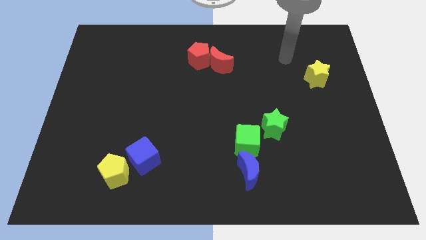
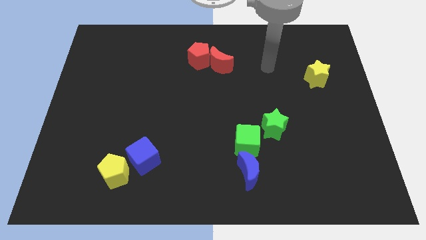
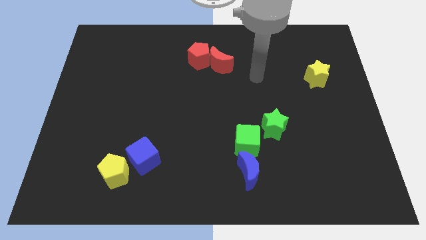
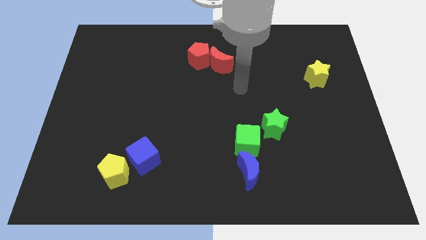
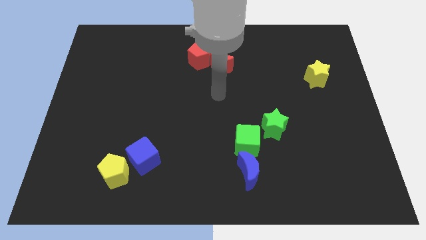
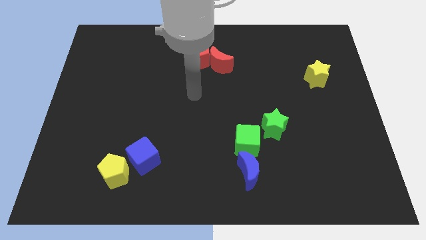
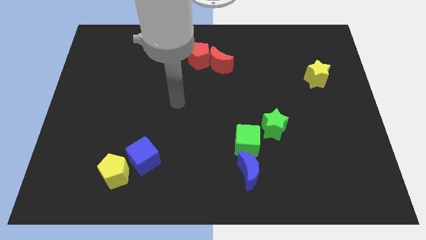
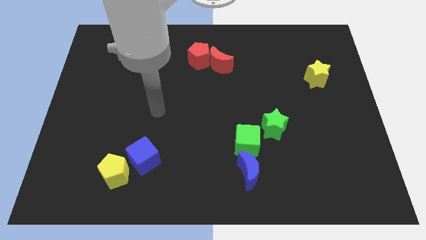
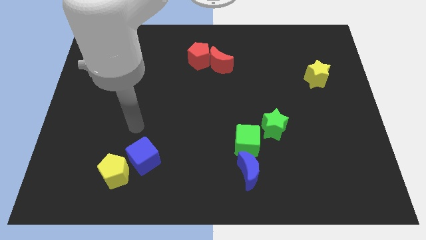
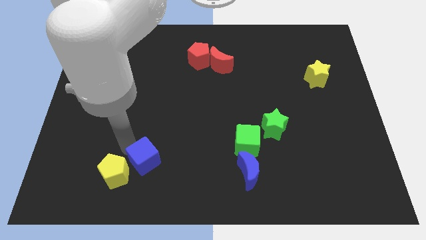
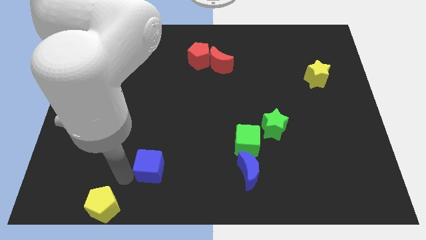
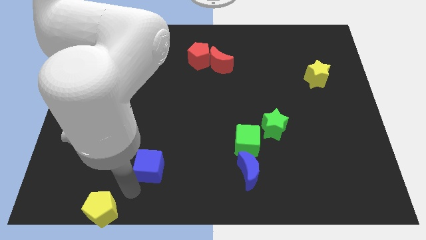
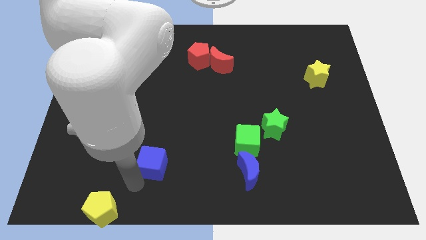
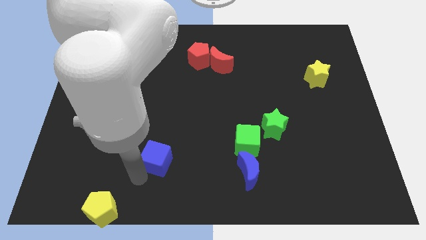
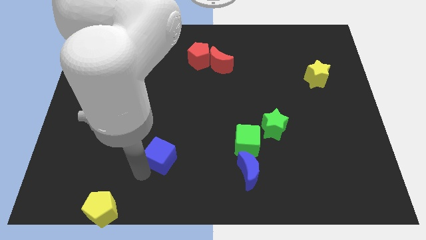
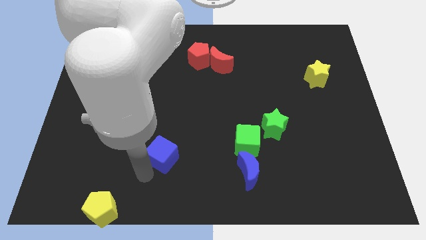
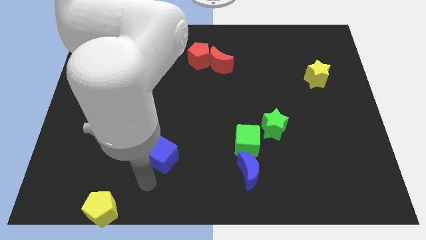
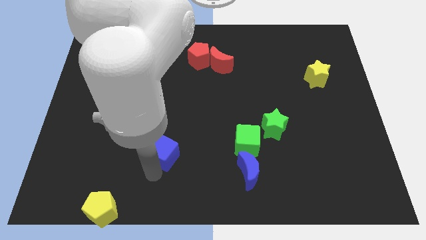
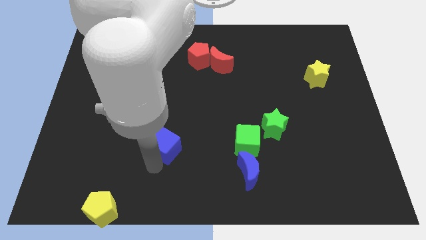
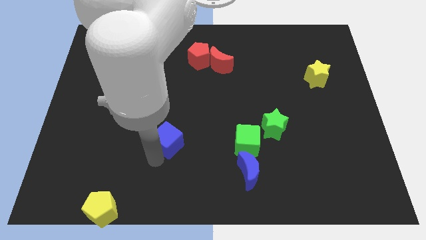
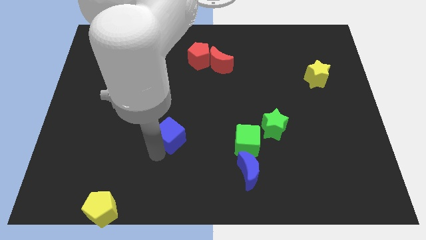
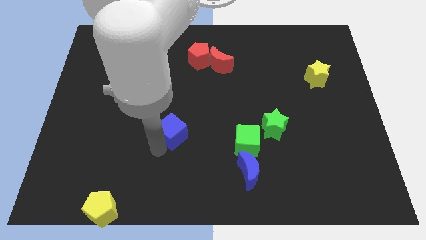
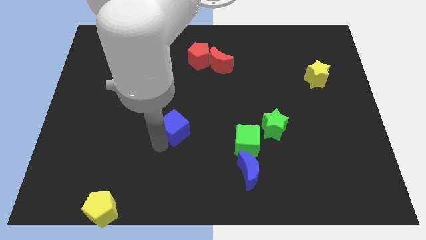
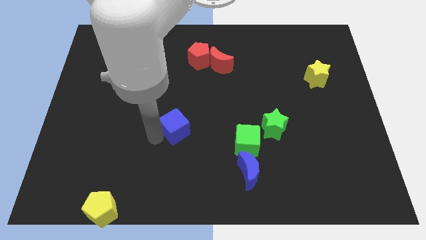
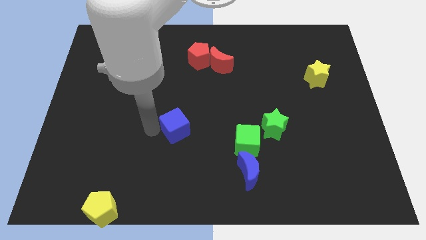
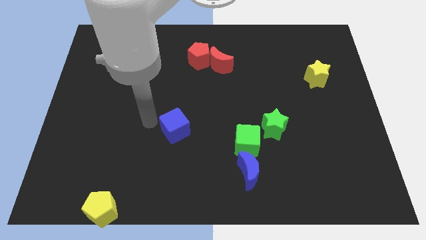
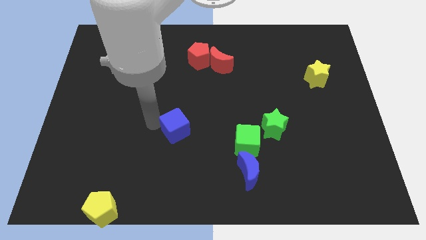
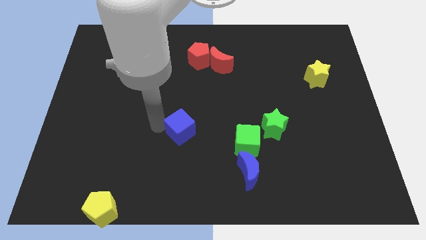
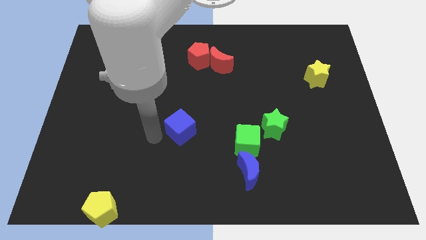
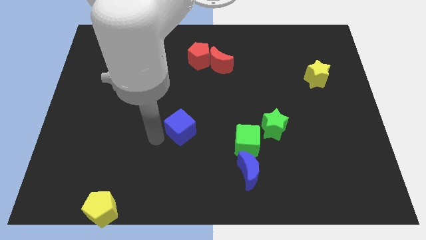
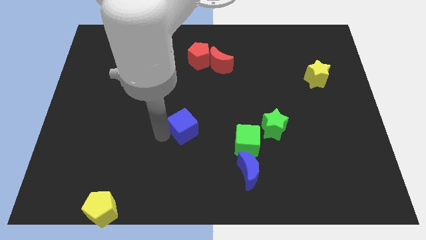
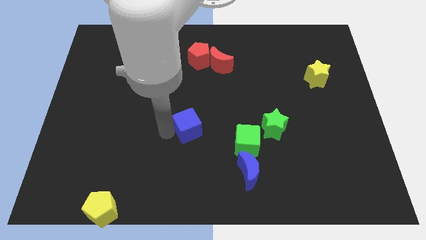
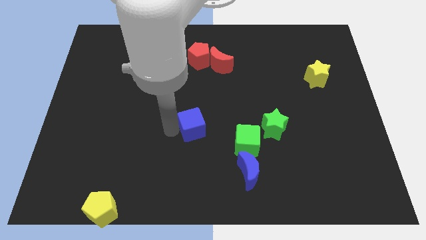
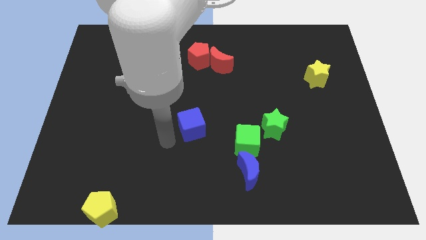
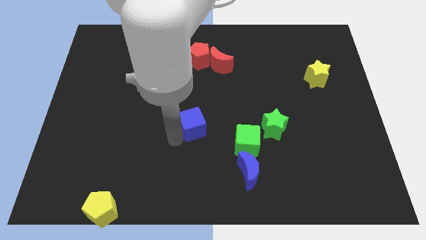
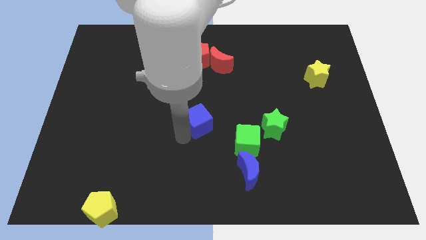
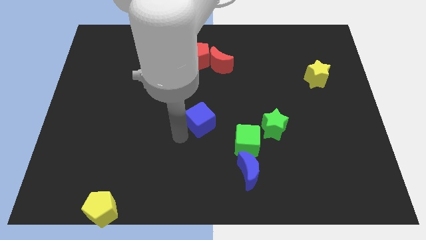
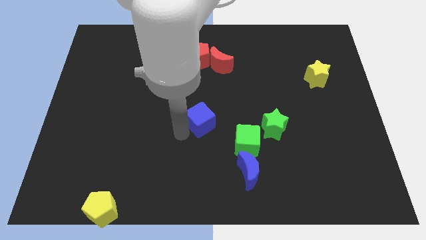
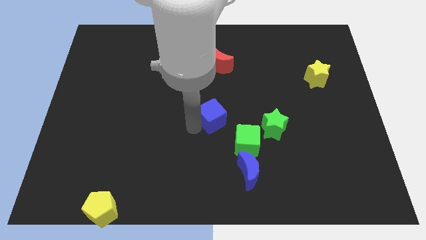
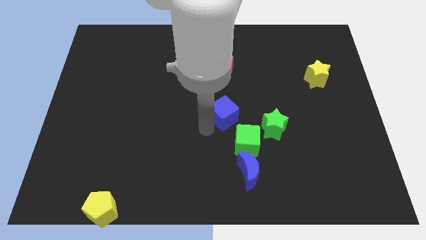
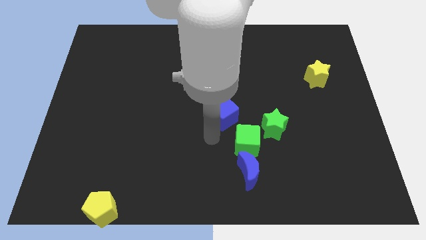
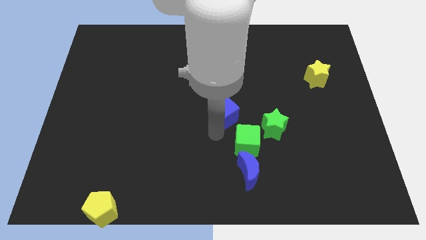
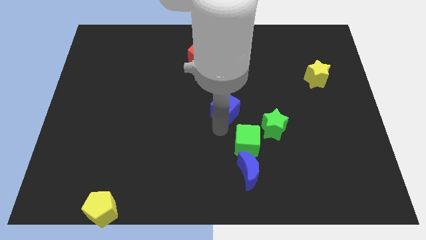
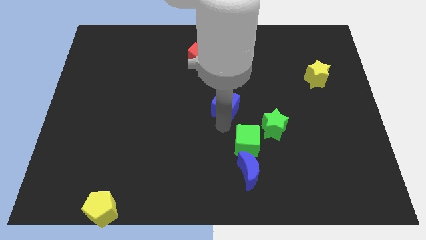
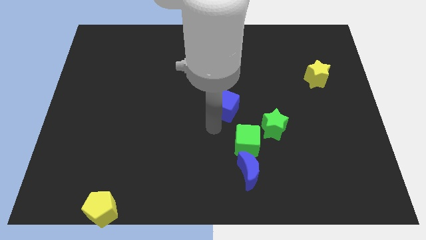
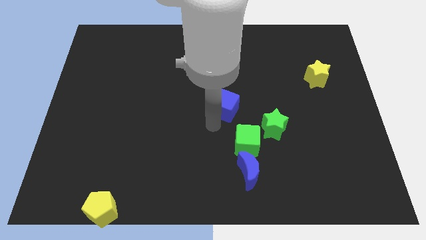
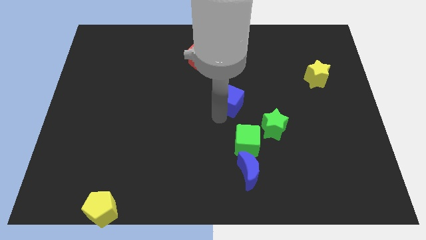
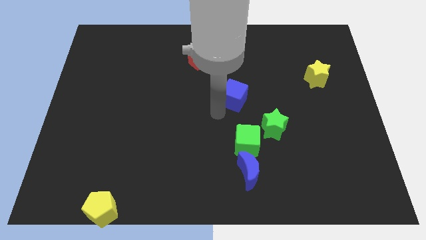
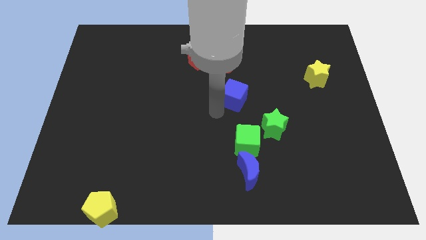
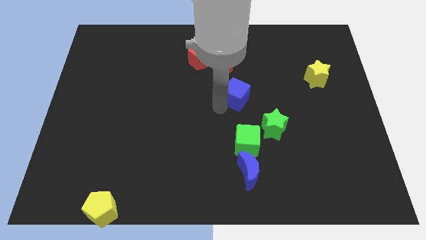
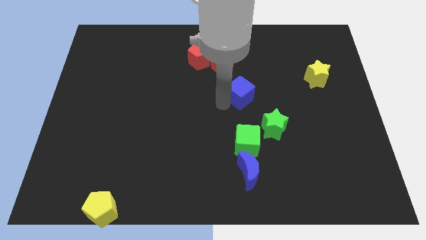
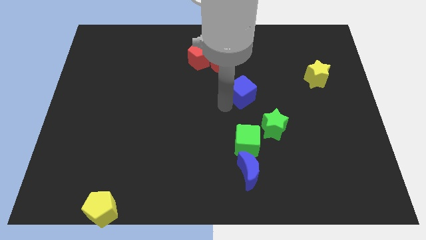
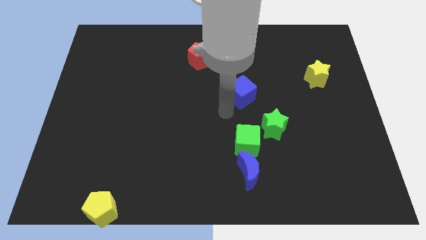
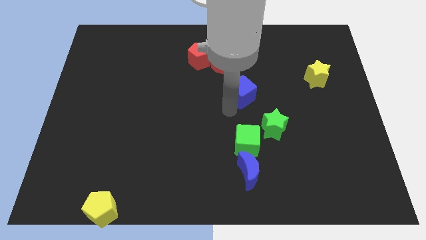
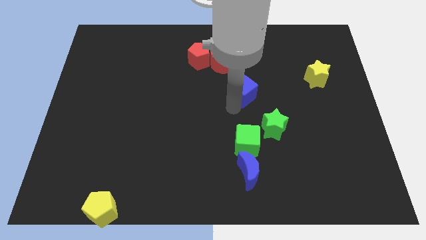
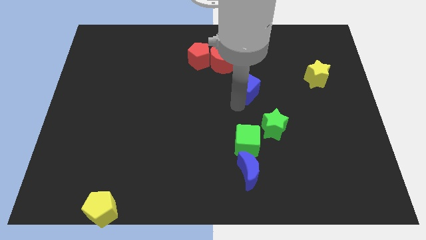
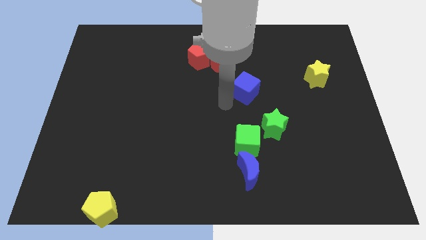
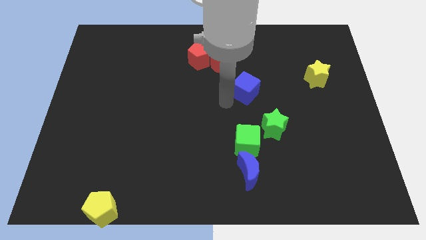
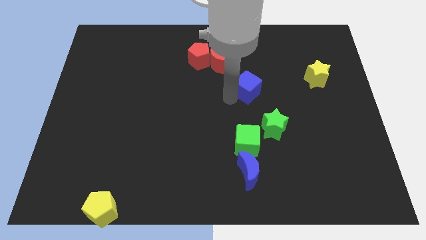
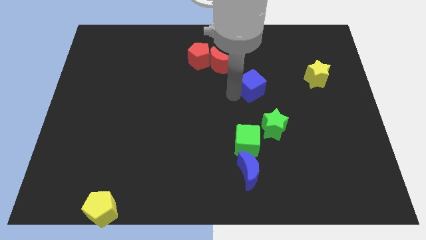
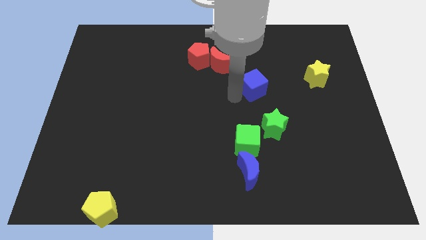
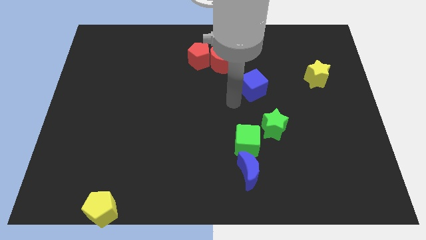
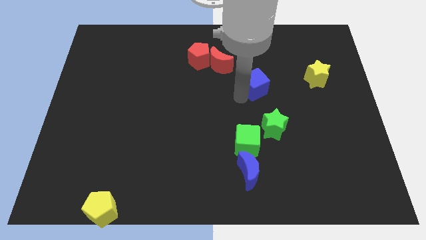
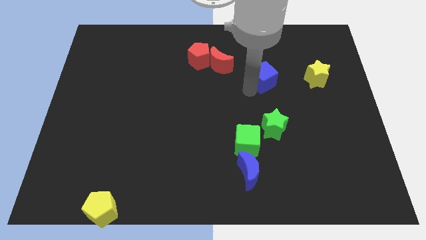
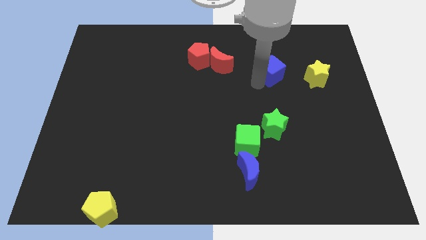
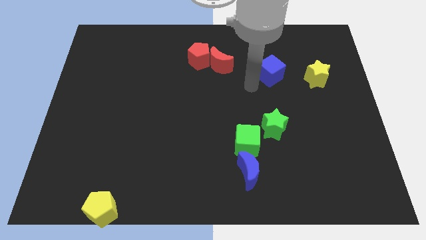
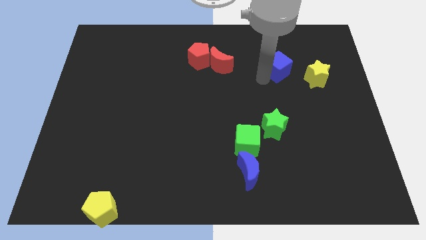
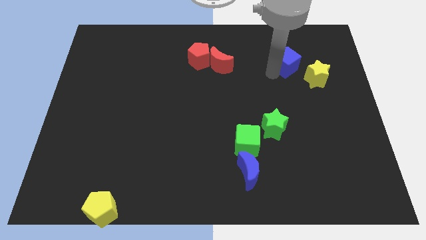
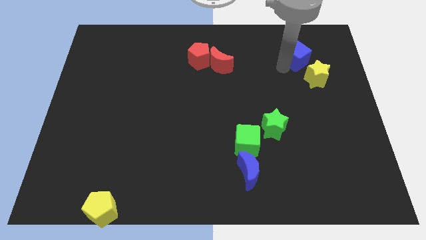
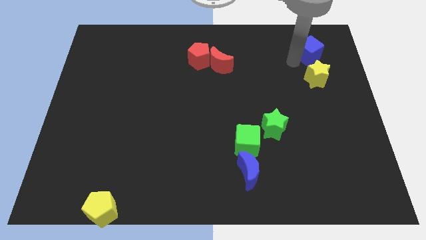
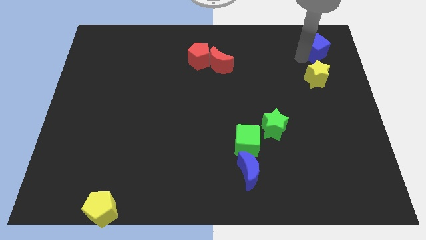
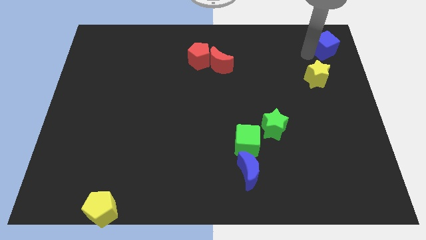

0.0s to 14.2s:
put the blue cube to the top right corner
